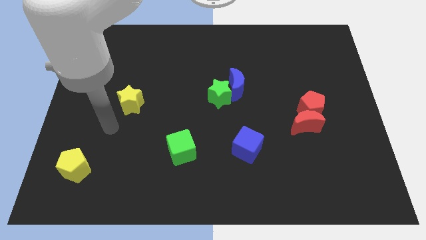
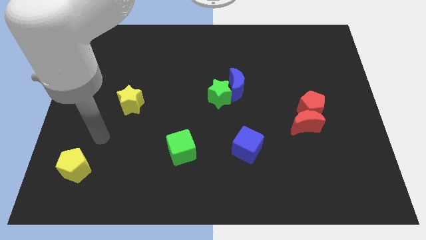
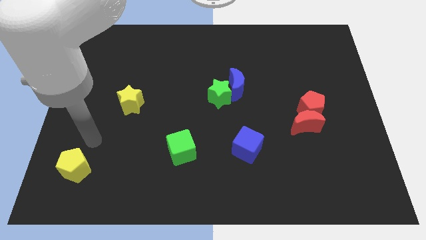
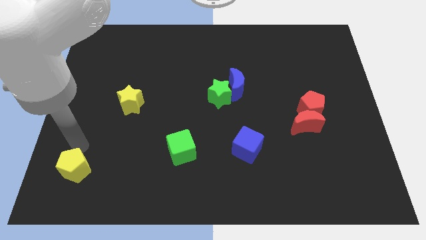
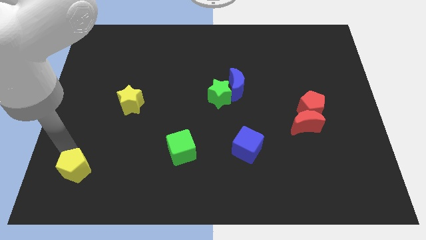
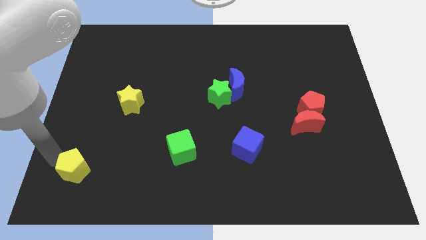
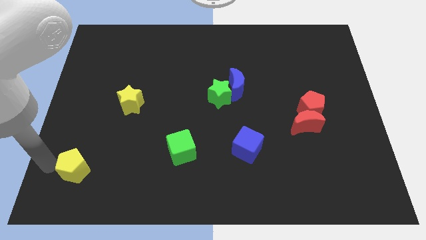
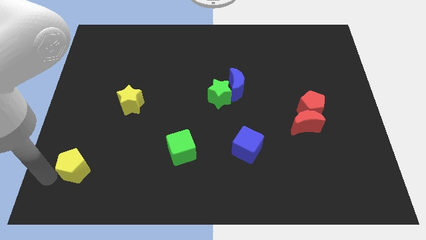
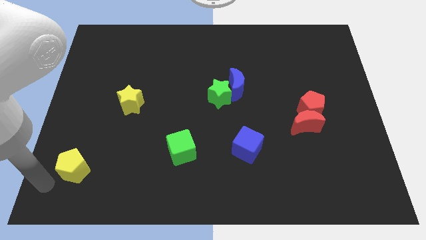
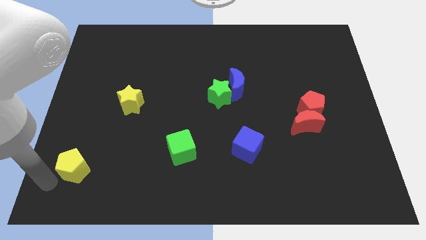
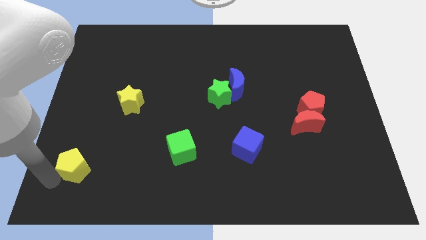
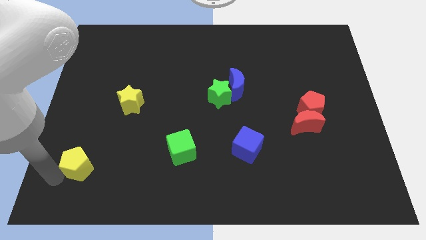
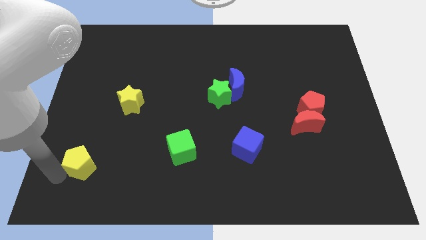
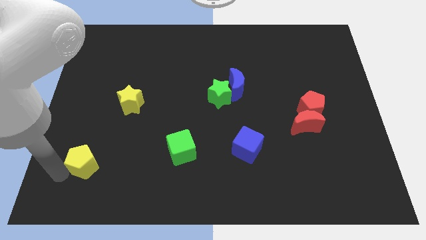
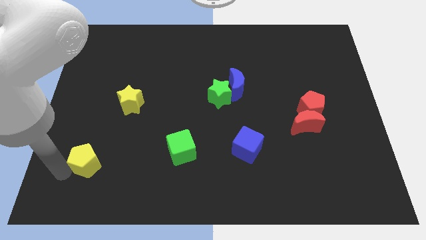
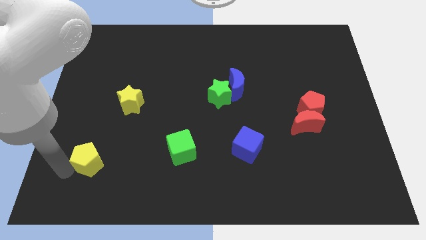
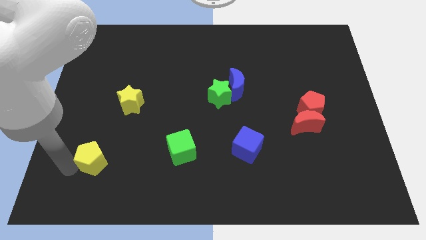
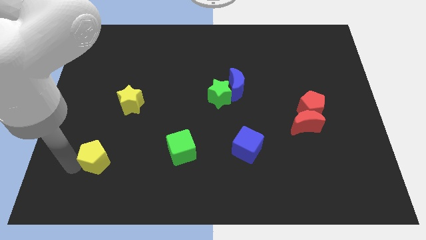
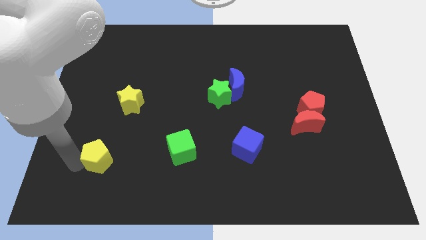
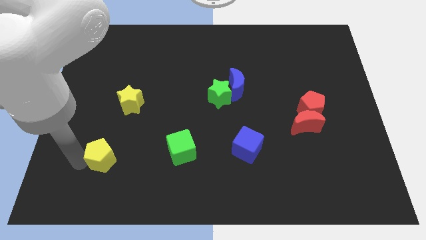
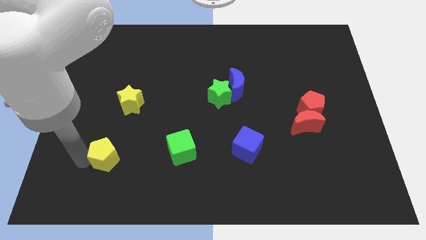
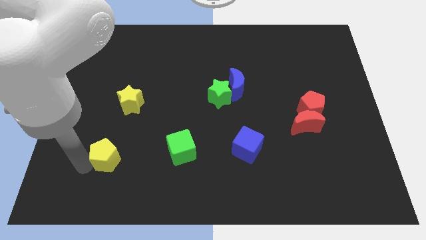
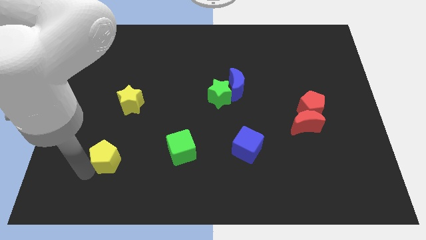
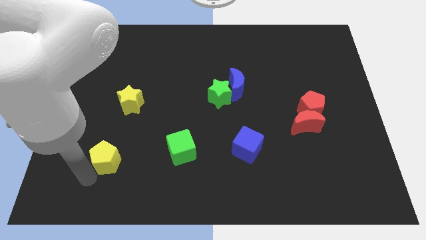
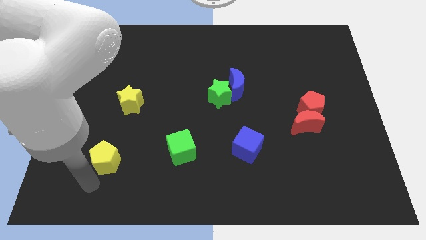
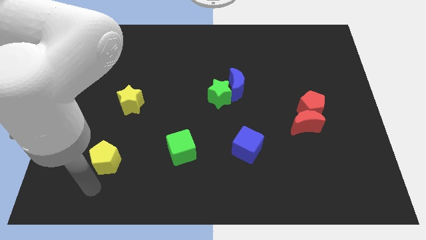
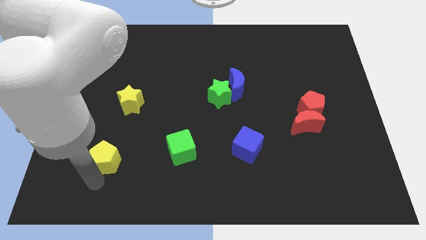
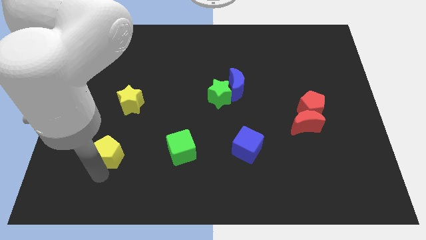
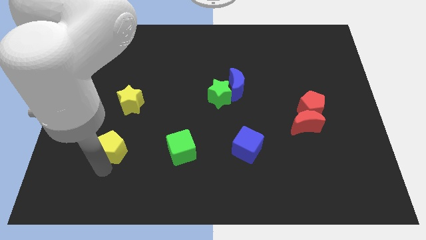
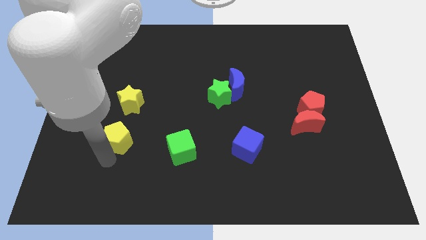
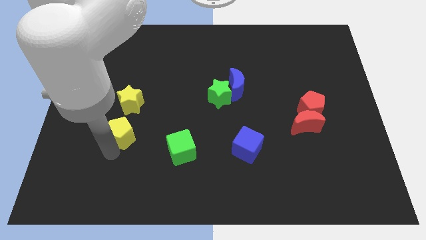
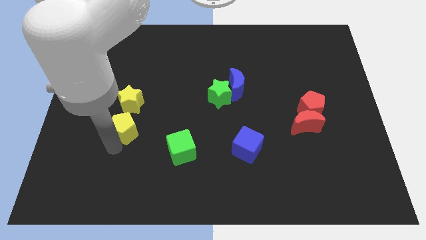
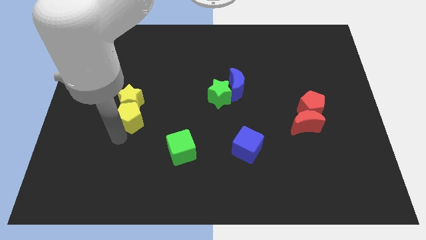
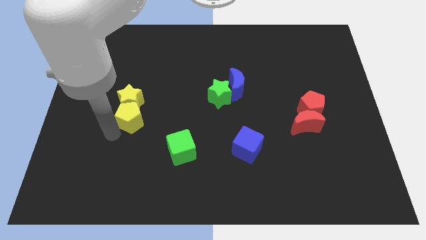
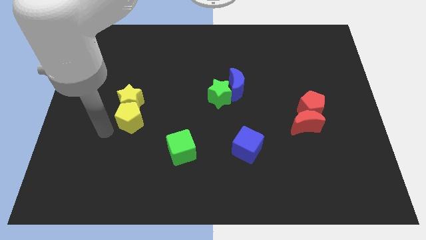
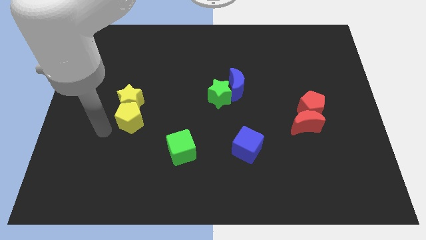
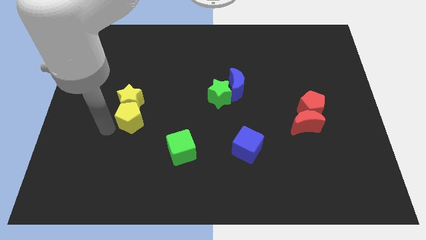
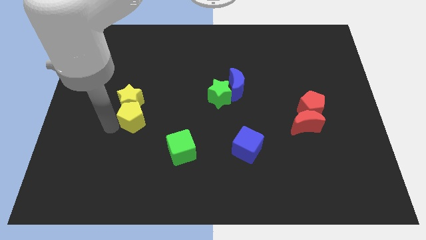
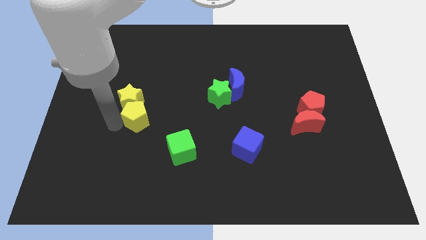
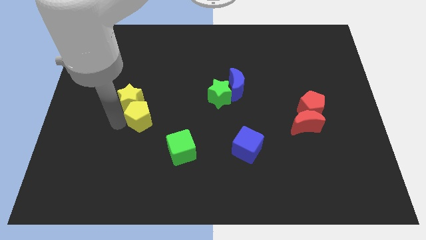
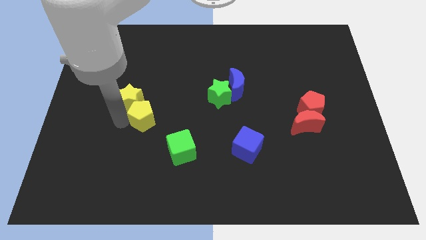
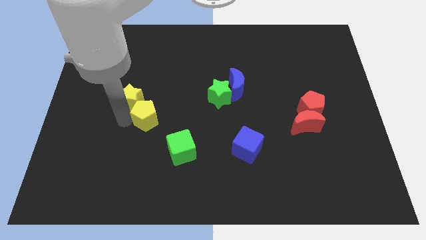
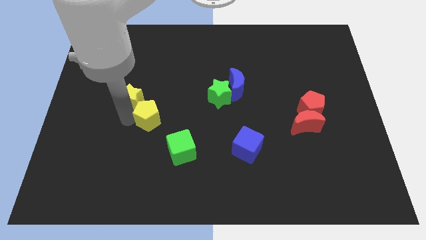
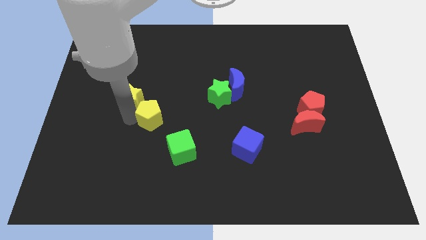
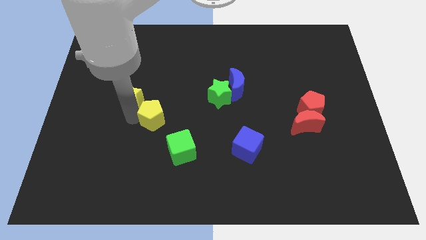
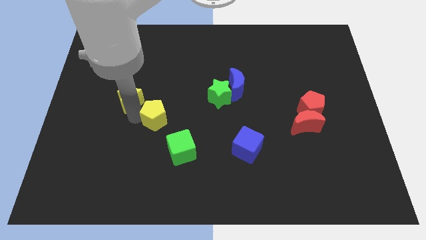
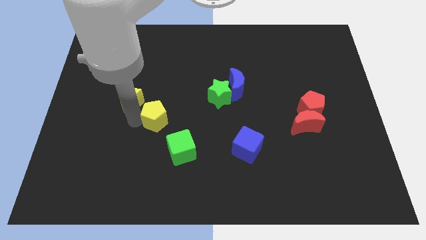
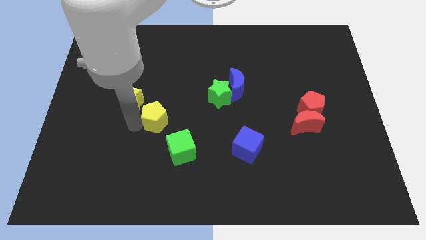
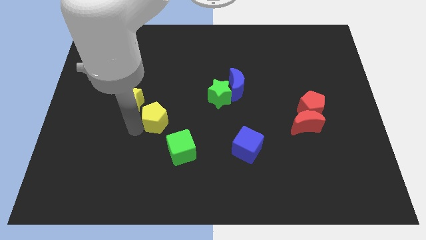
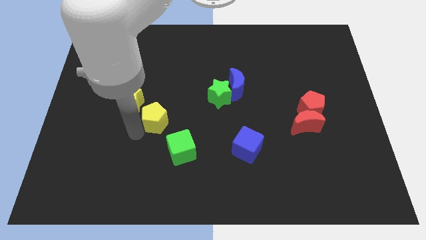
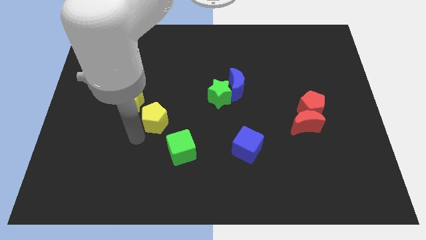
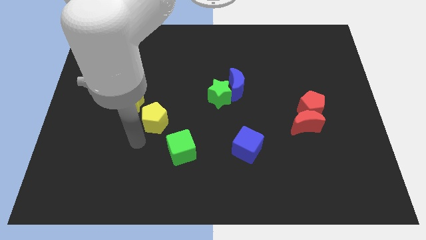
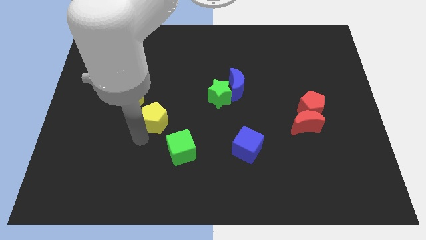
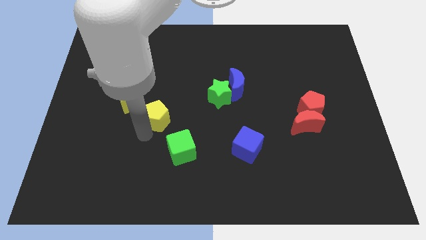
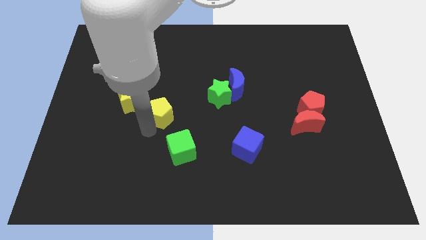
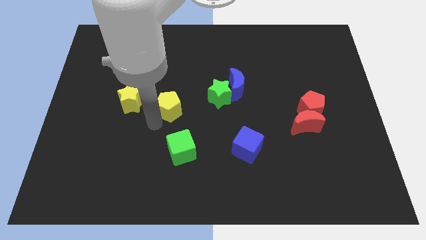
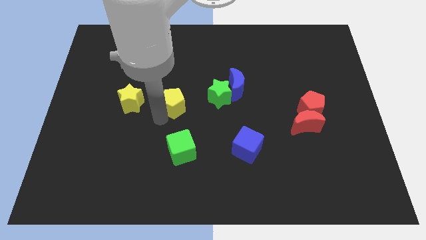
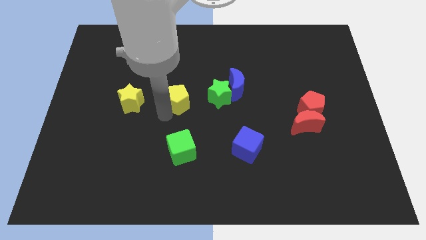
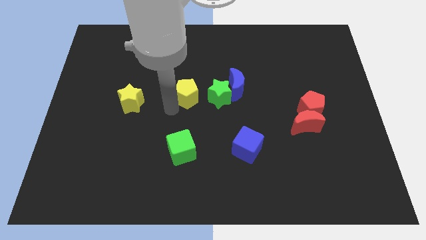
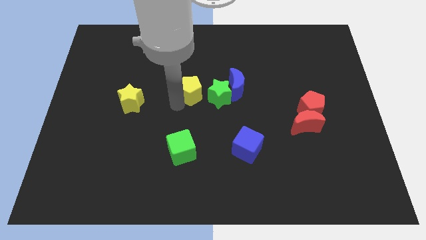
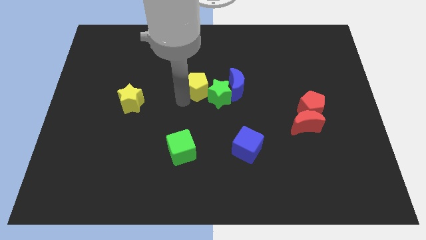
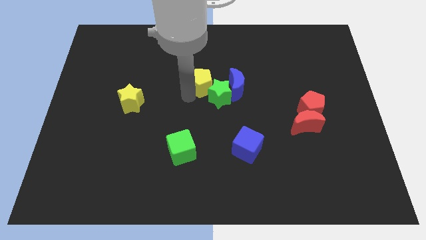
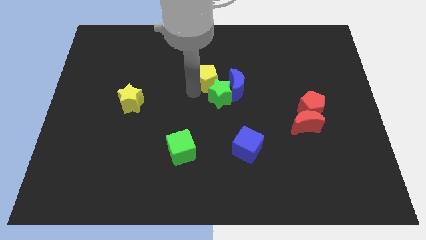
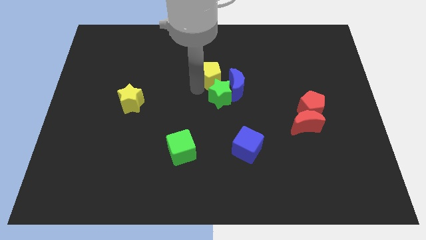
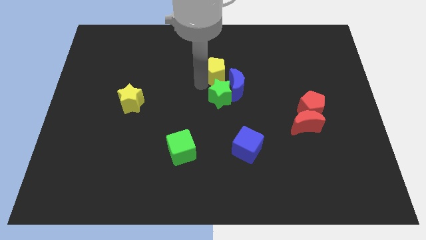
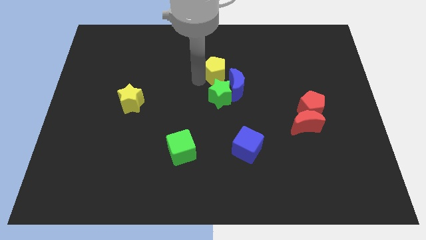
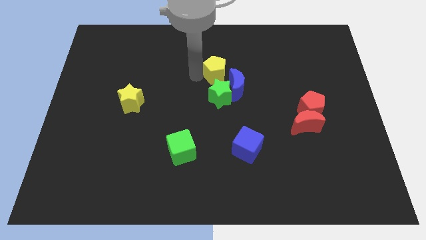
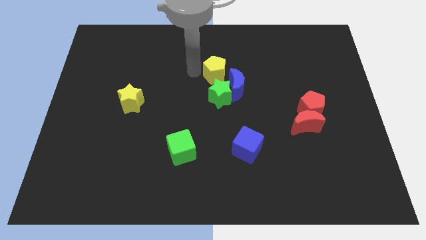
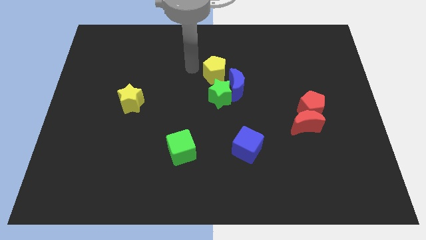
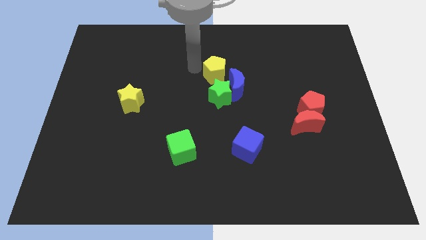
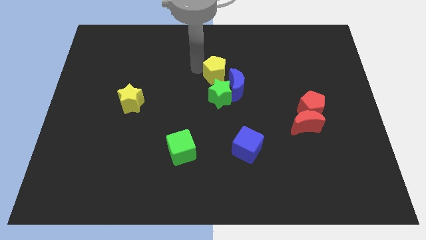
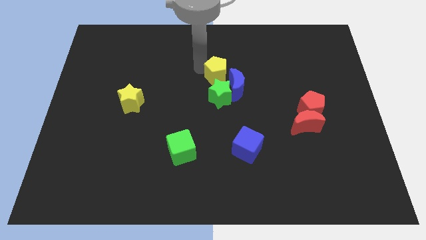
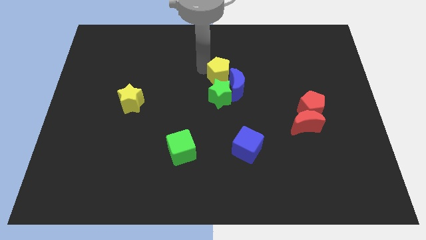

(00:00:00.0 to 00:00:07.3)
slide the yellow pentagon to the top right of the green star

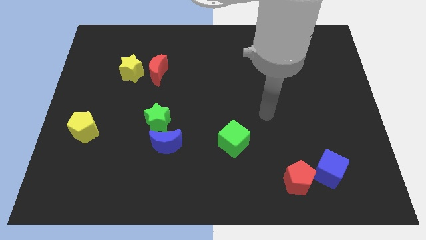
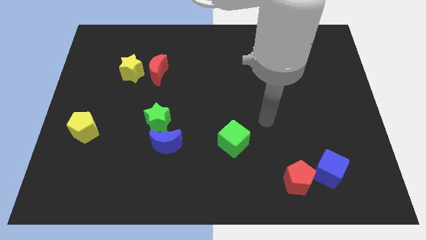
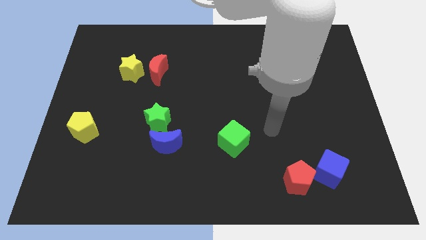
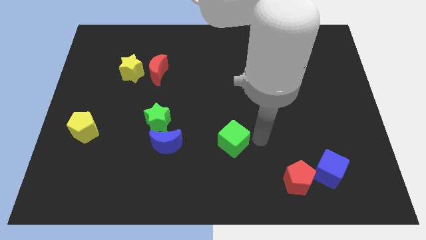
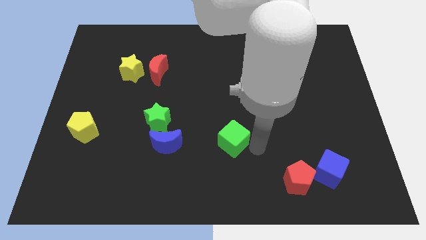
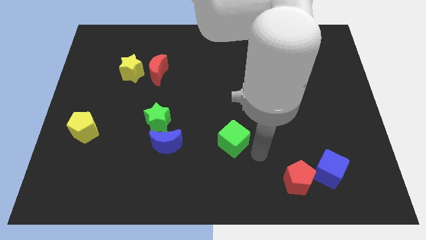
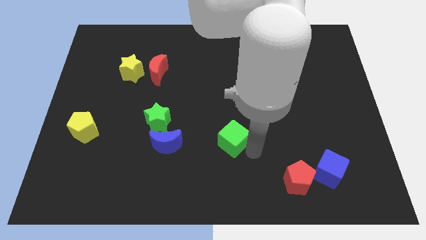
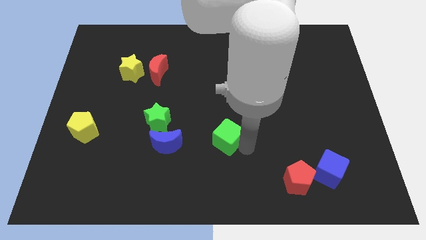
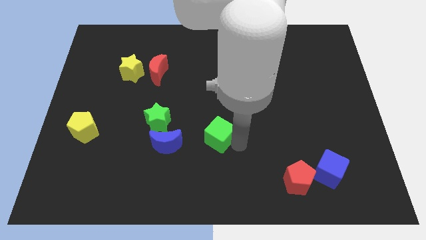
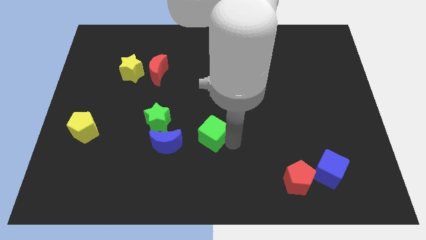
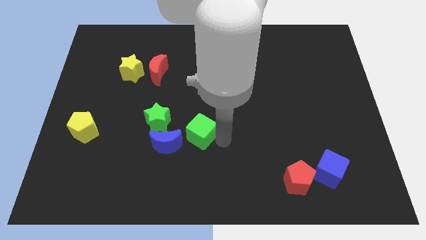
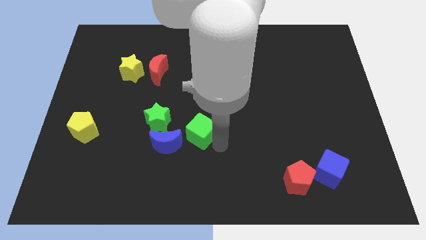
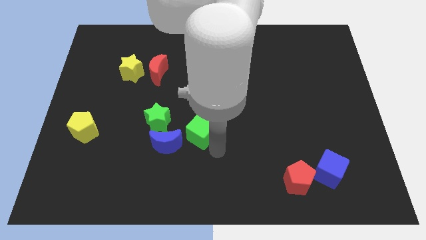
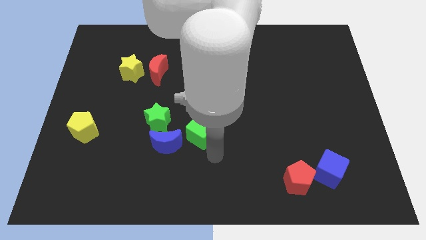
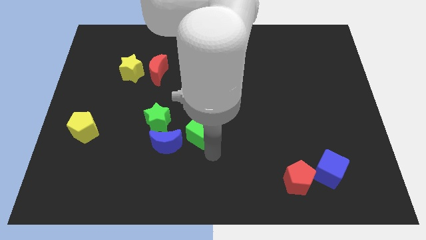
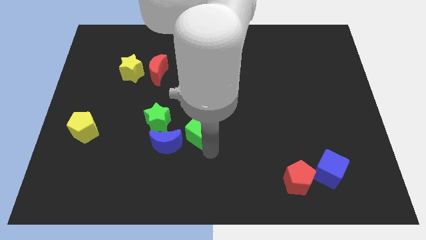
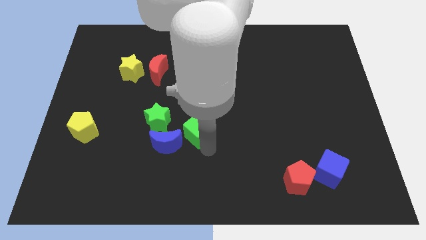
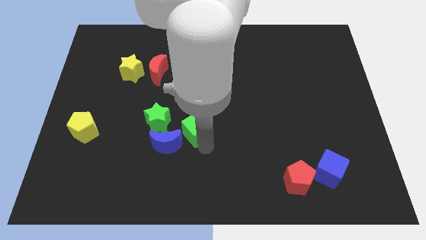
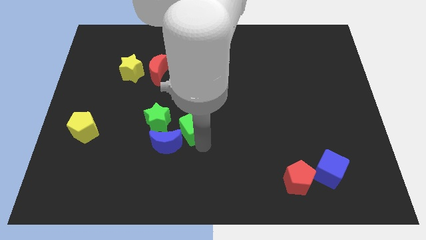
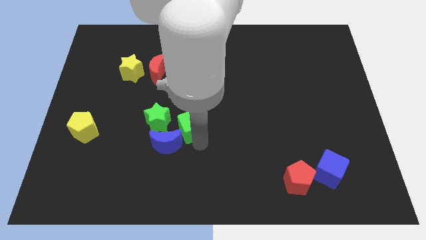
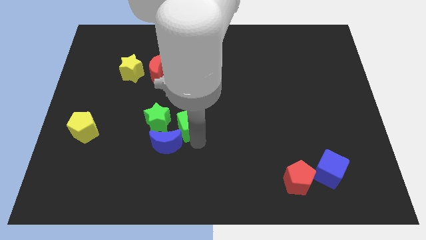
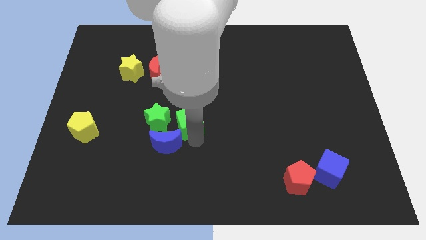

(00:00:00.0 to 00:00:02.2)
slide the green cube above the blue moon
